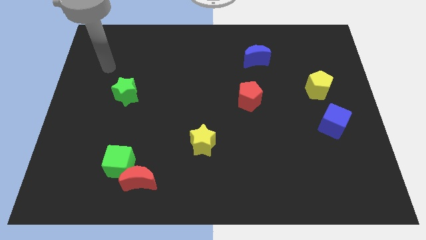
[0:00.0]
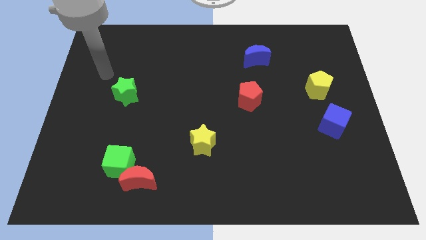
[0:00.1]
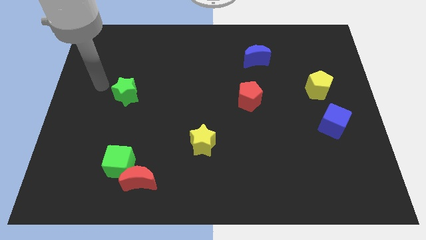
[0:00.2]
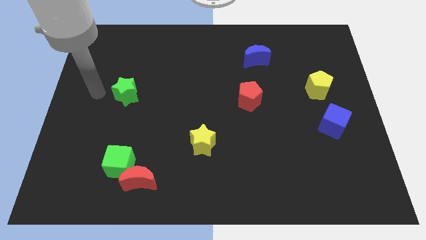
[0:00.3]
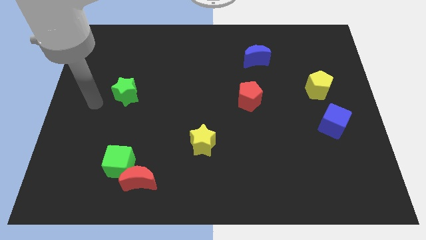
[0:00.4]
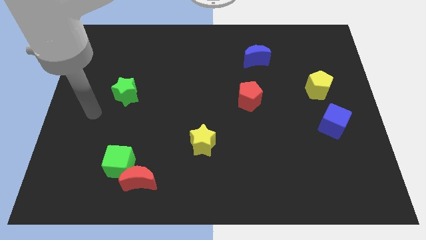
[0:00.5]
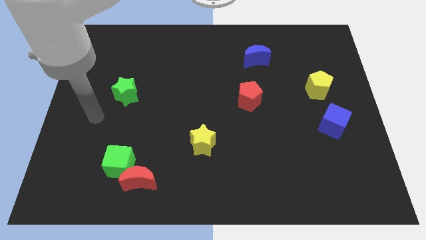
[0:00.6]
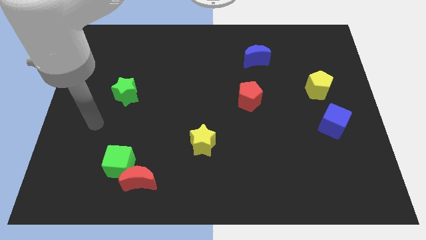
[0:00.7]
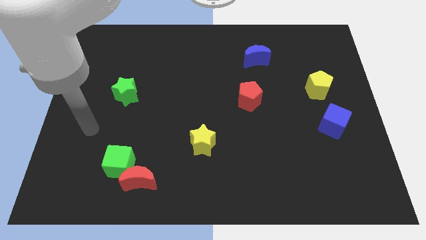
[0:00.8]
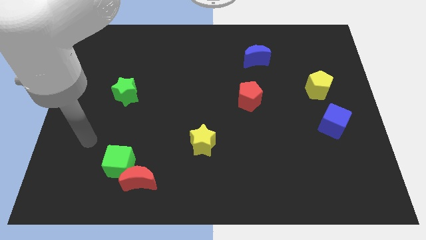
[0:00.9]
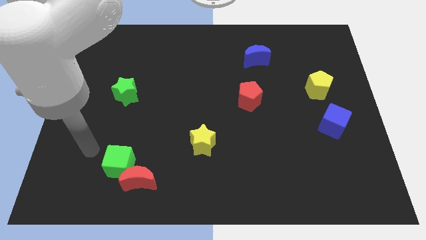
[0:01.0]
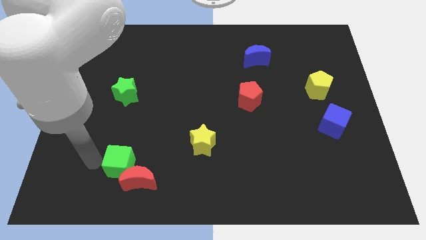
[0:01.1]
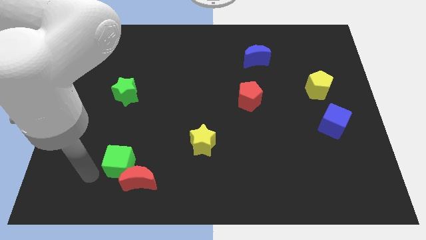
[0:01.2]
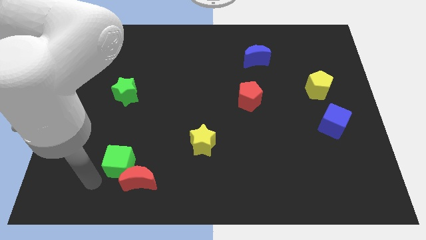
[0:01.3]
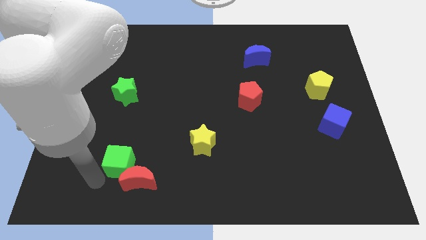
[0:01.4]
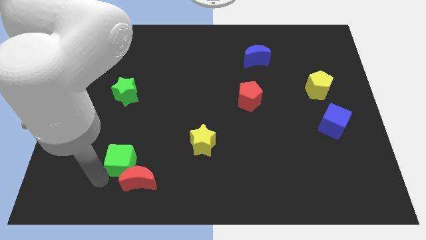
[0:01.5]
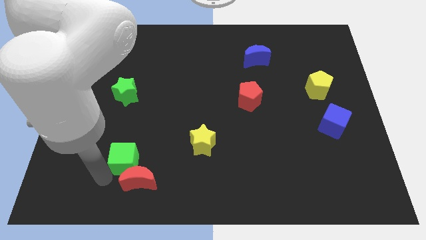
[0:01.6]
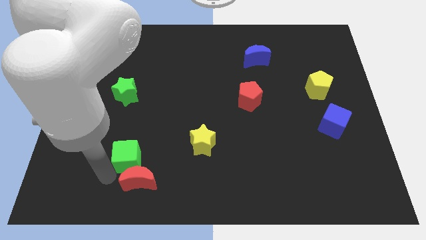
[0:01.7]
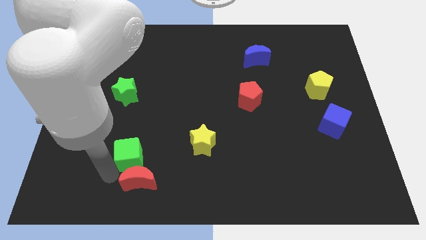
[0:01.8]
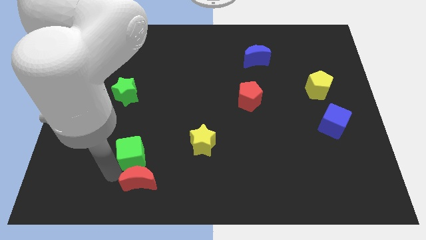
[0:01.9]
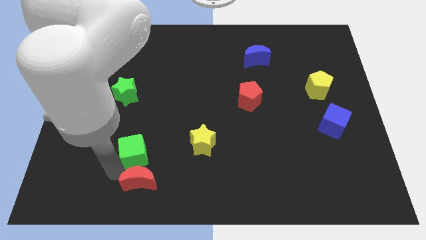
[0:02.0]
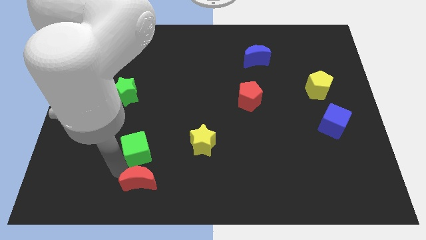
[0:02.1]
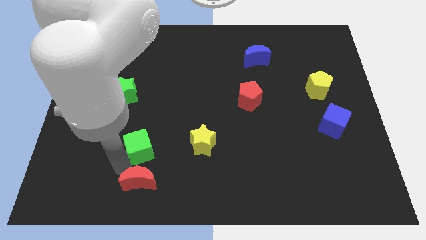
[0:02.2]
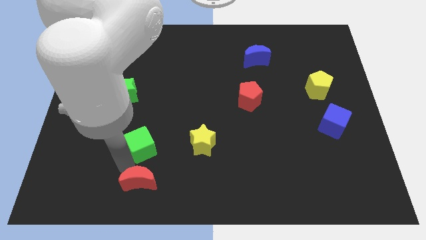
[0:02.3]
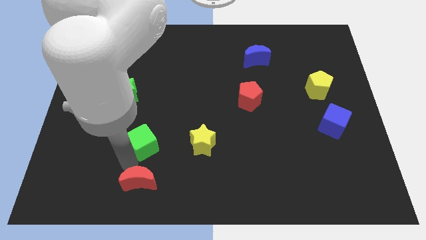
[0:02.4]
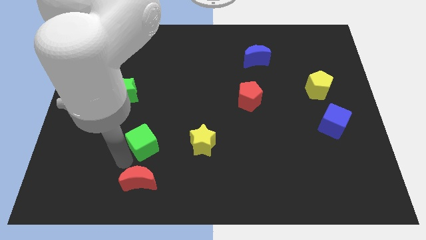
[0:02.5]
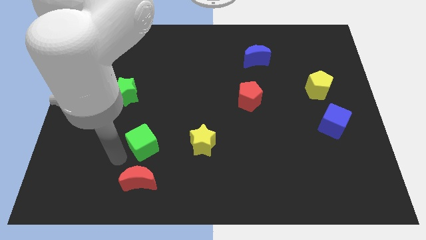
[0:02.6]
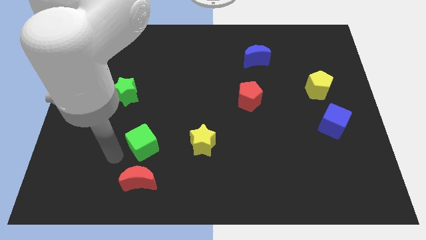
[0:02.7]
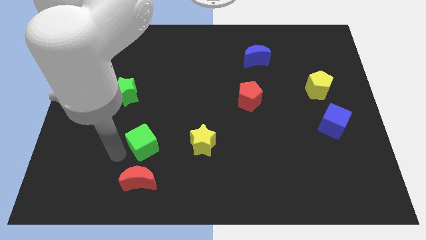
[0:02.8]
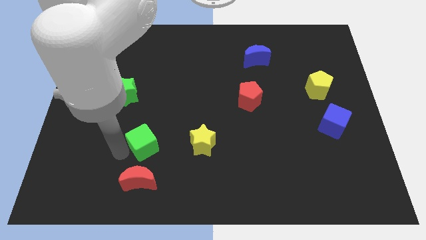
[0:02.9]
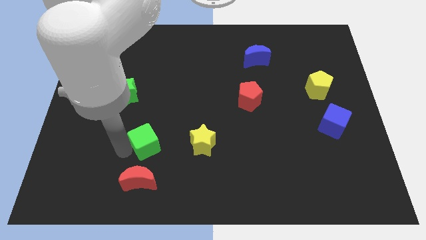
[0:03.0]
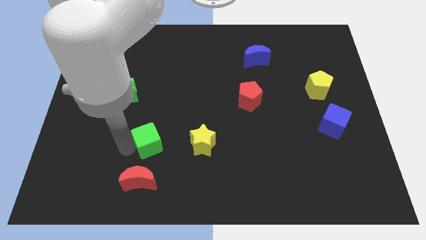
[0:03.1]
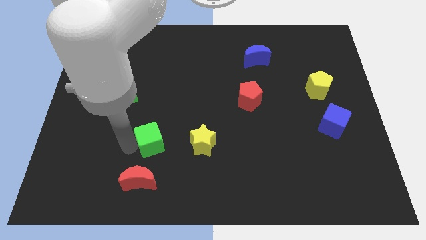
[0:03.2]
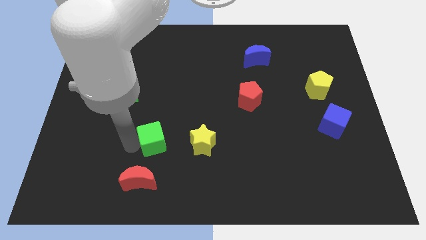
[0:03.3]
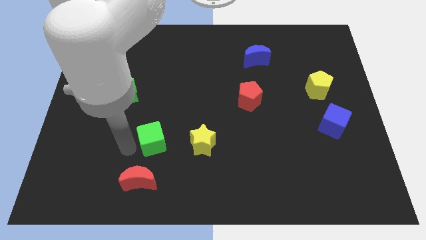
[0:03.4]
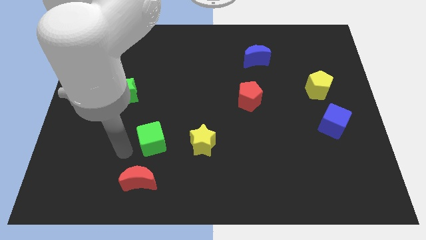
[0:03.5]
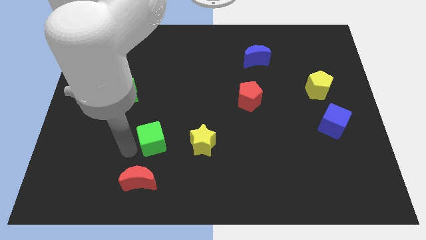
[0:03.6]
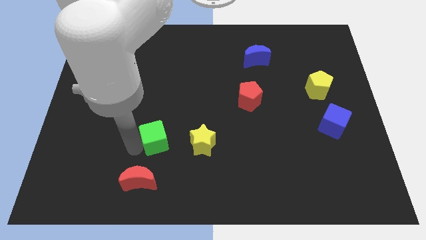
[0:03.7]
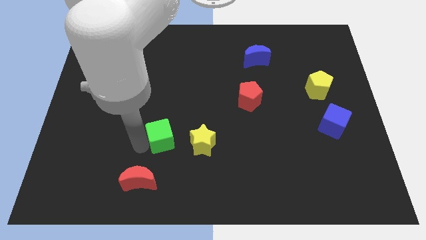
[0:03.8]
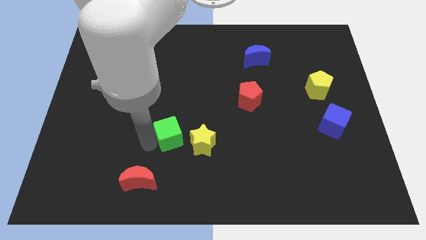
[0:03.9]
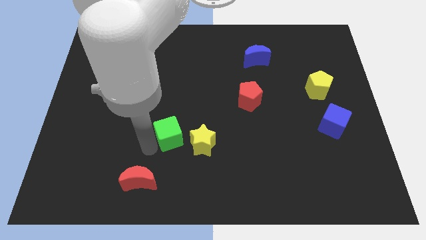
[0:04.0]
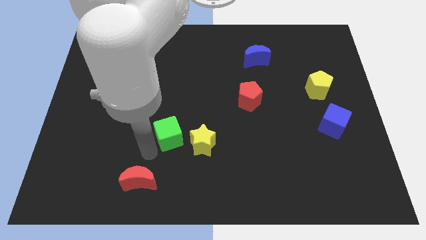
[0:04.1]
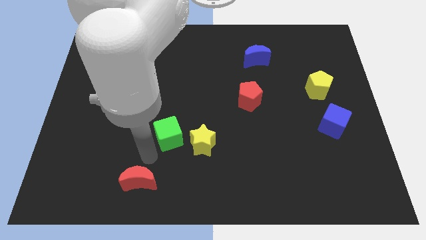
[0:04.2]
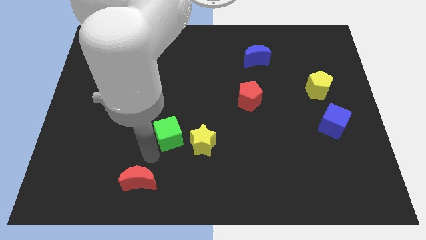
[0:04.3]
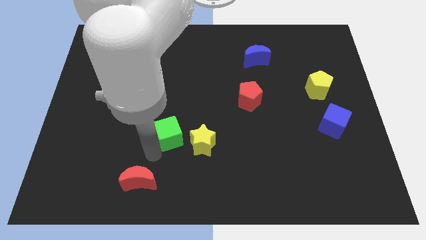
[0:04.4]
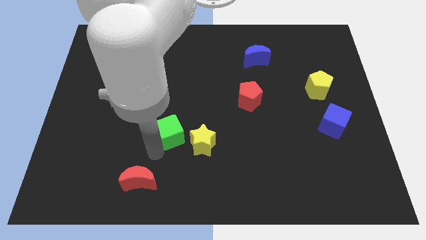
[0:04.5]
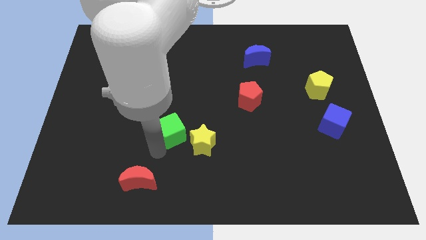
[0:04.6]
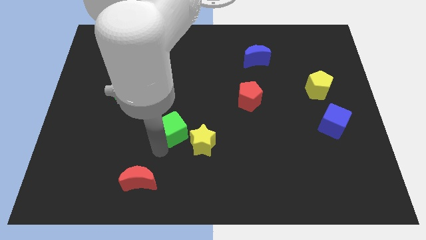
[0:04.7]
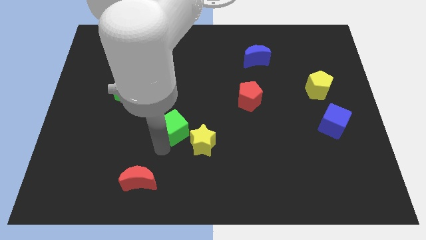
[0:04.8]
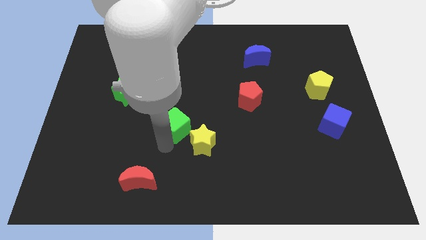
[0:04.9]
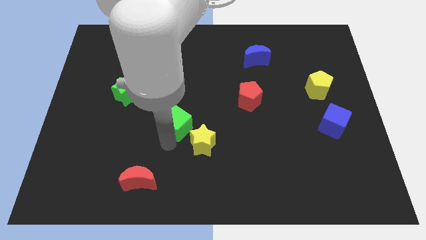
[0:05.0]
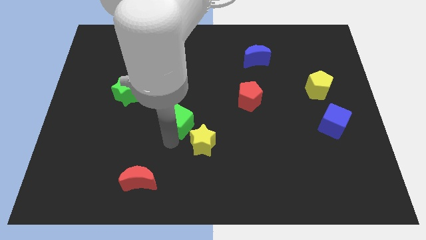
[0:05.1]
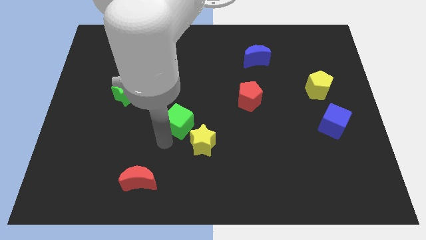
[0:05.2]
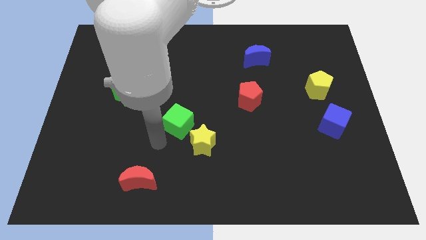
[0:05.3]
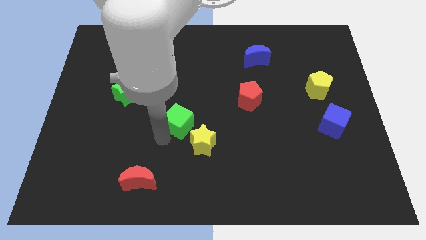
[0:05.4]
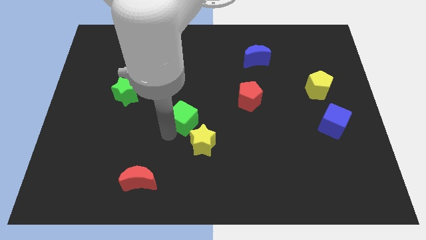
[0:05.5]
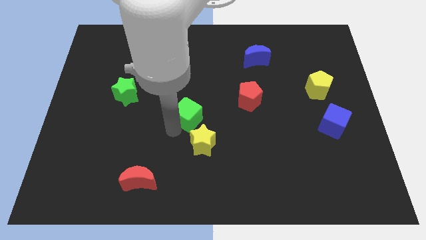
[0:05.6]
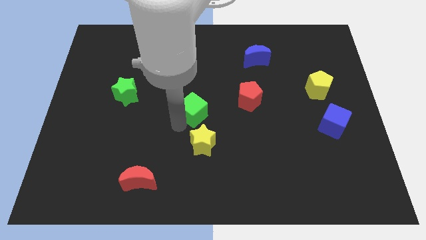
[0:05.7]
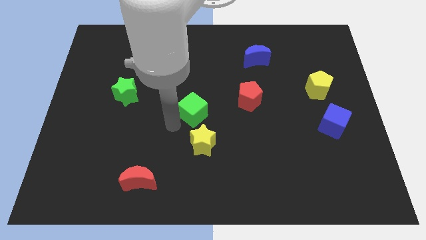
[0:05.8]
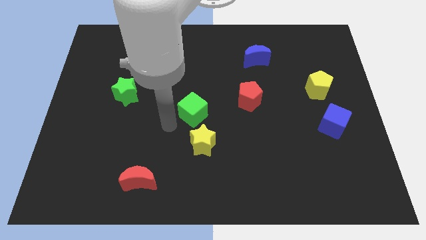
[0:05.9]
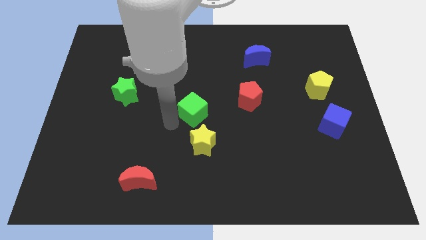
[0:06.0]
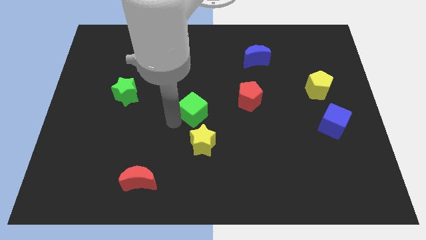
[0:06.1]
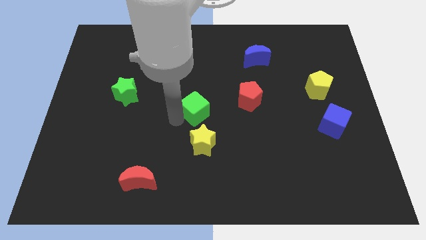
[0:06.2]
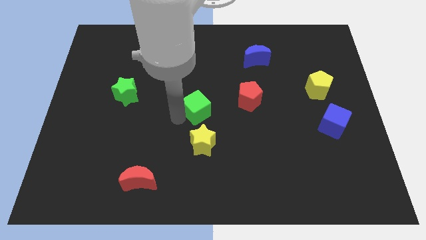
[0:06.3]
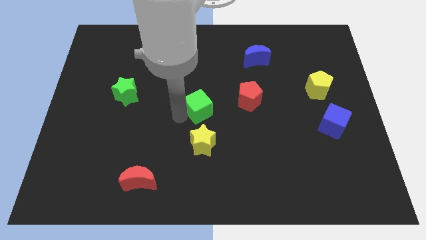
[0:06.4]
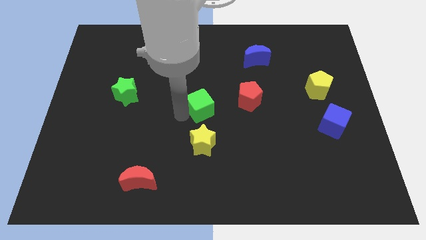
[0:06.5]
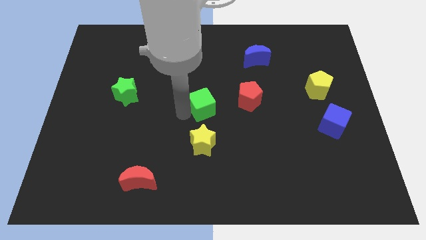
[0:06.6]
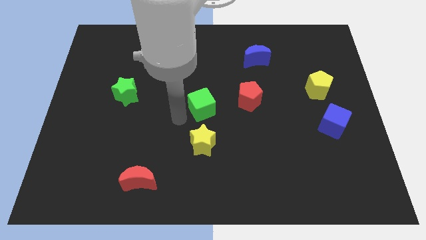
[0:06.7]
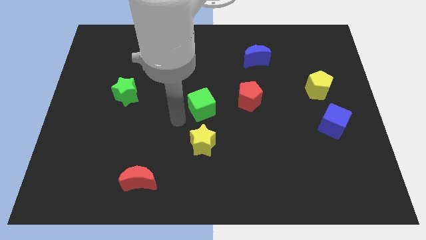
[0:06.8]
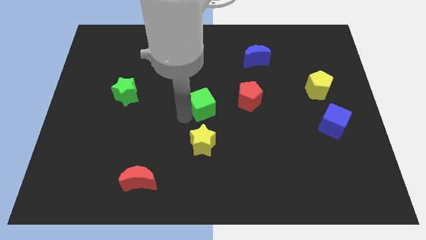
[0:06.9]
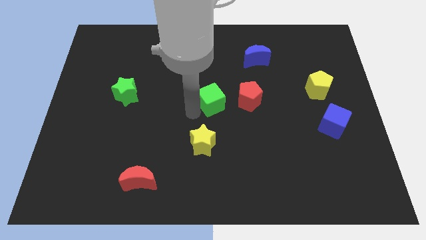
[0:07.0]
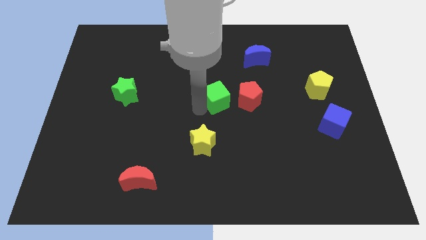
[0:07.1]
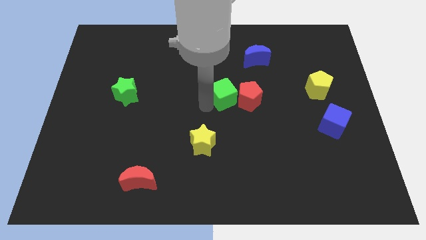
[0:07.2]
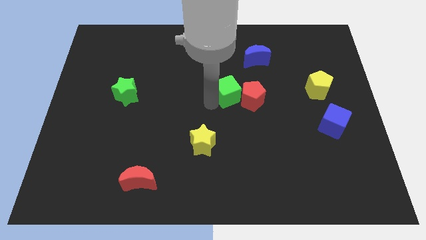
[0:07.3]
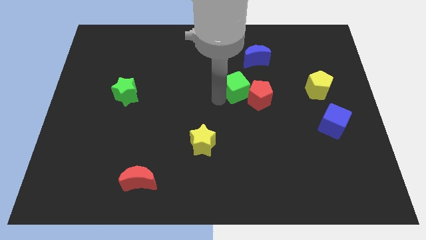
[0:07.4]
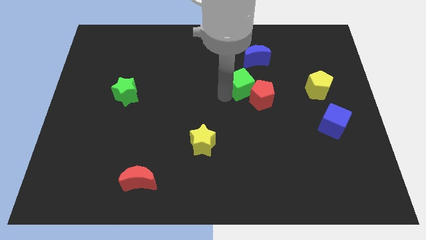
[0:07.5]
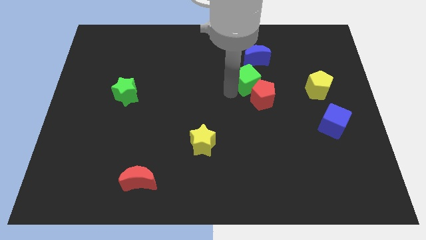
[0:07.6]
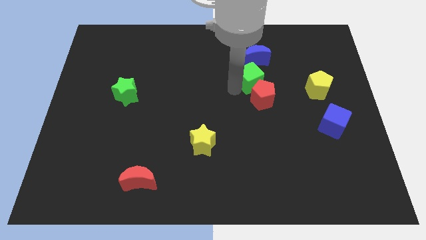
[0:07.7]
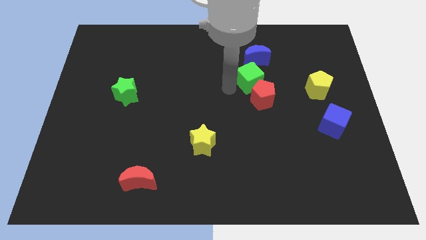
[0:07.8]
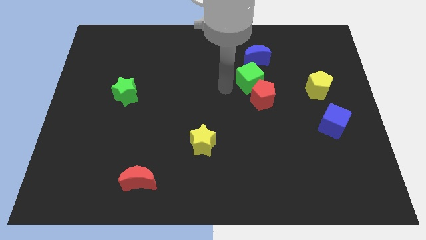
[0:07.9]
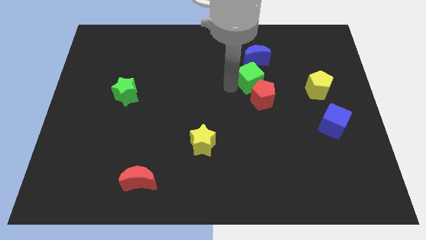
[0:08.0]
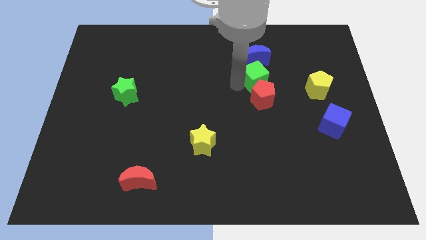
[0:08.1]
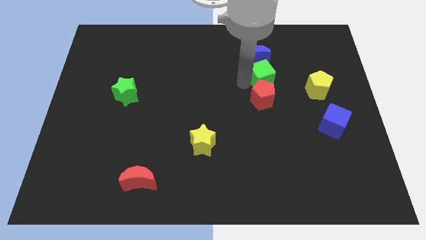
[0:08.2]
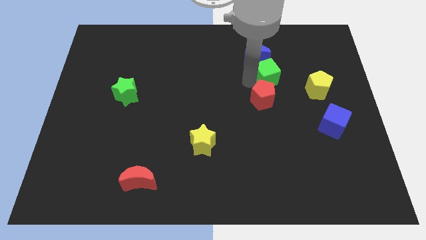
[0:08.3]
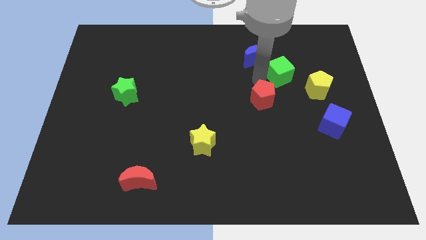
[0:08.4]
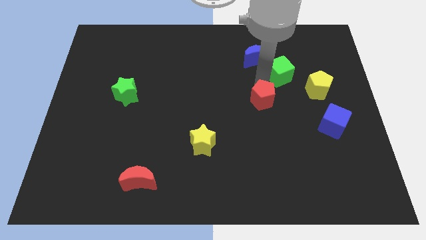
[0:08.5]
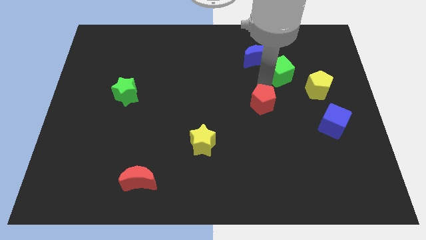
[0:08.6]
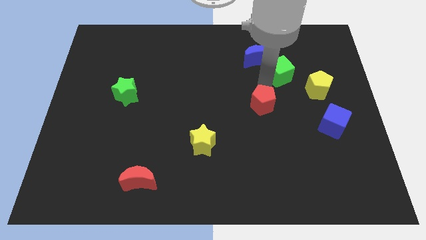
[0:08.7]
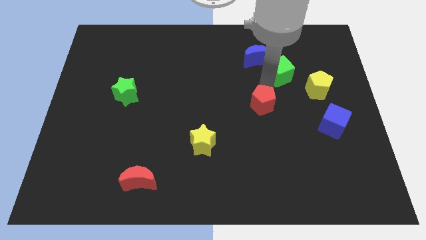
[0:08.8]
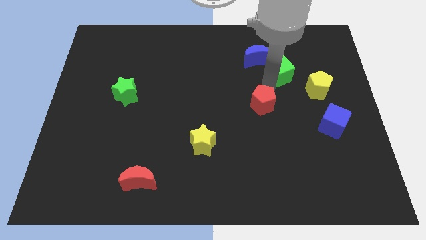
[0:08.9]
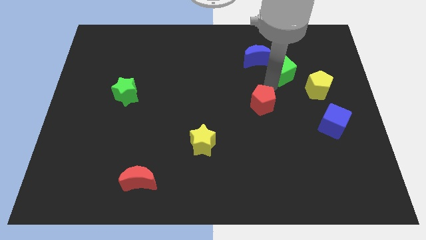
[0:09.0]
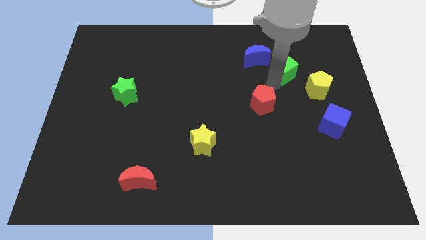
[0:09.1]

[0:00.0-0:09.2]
put the green cube just right of the blue moon
